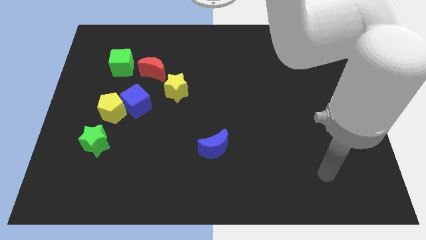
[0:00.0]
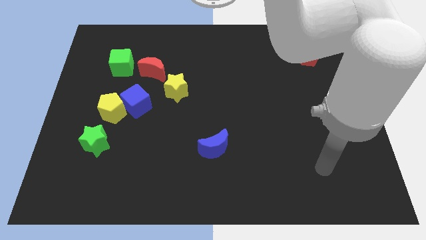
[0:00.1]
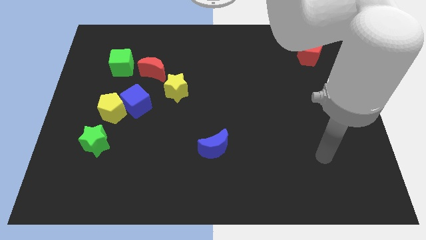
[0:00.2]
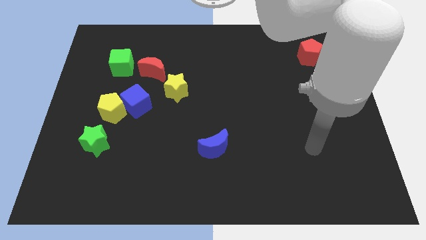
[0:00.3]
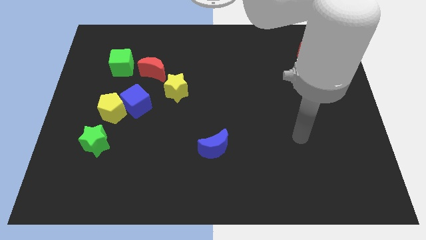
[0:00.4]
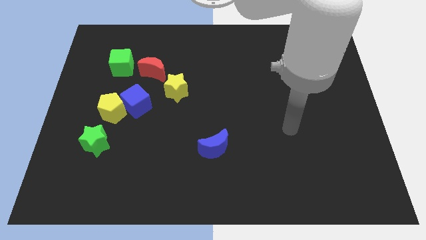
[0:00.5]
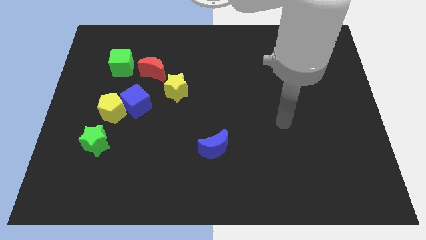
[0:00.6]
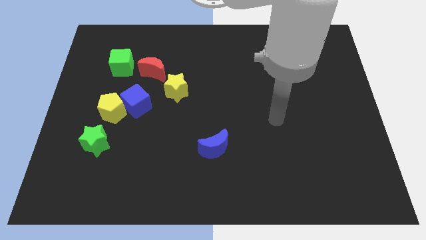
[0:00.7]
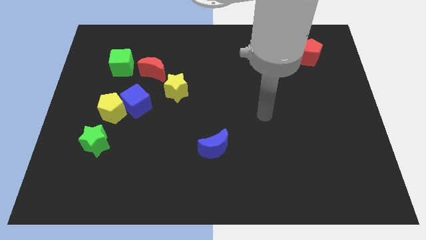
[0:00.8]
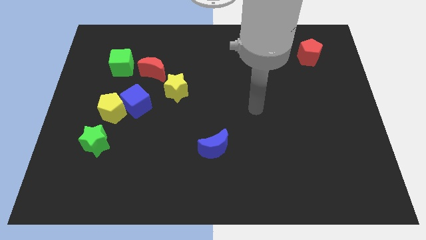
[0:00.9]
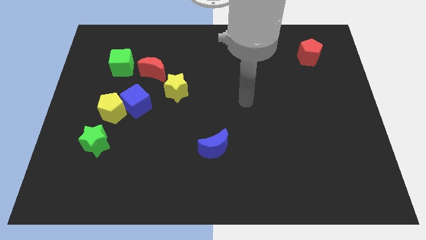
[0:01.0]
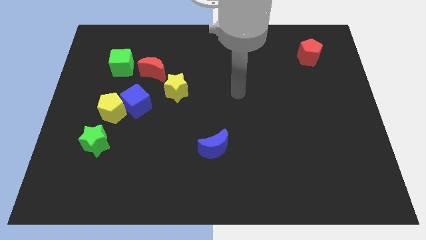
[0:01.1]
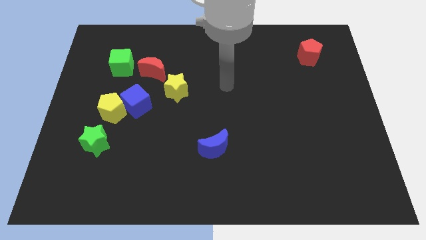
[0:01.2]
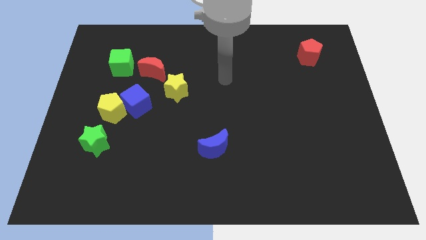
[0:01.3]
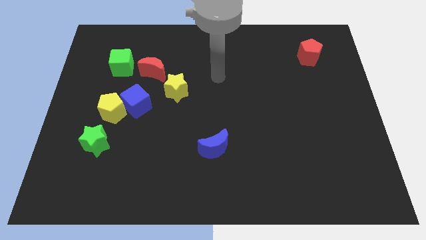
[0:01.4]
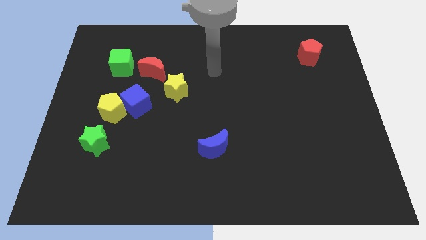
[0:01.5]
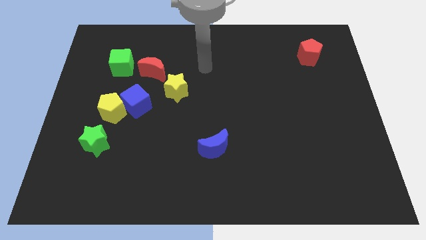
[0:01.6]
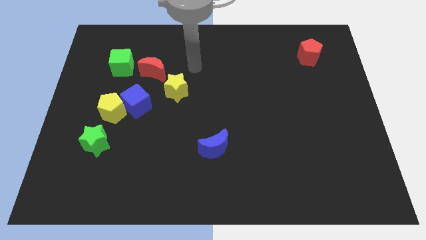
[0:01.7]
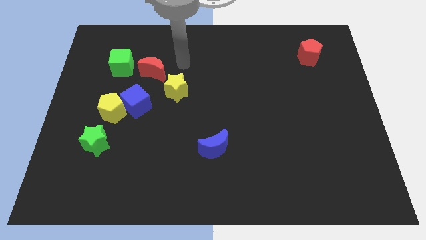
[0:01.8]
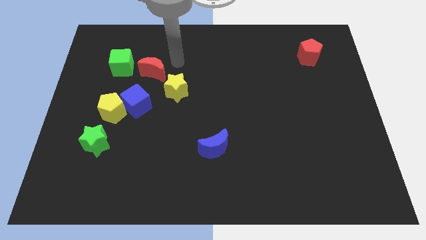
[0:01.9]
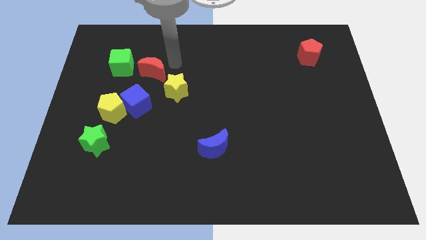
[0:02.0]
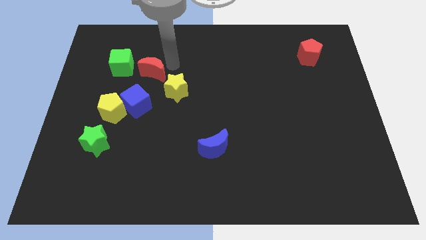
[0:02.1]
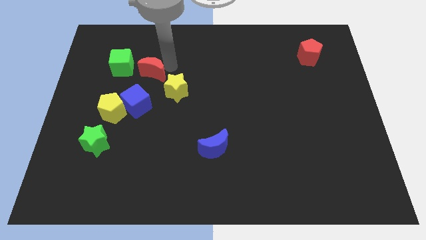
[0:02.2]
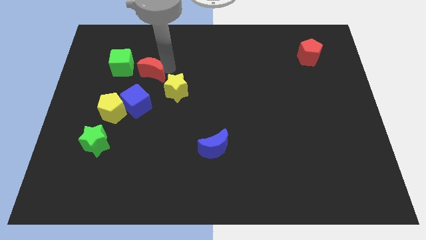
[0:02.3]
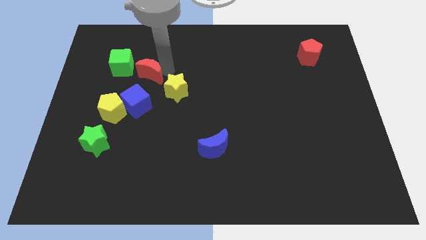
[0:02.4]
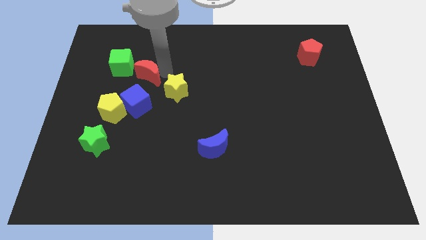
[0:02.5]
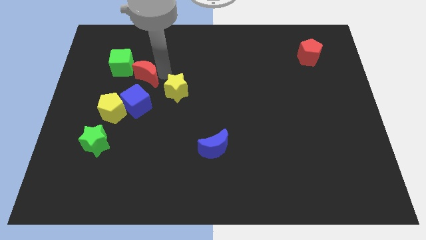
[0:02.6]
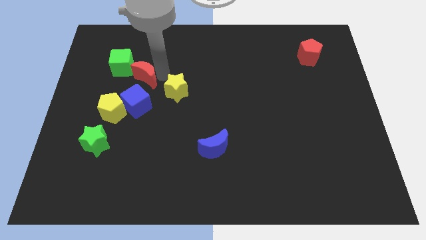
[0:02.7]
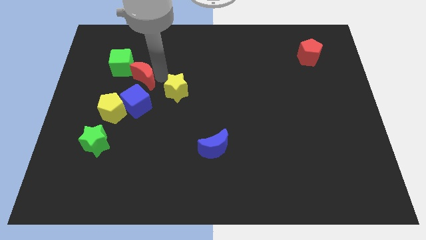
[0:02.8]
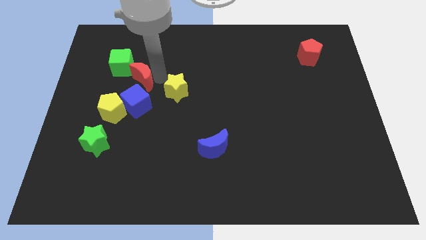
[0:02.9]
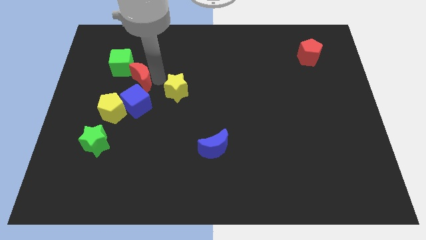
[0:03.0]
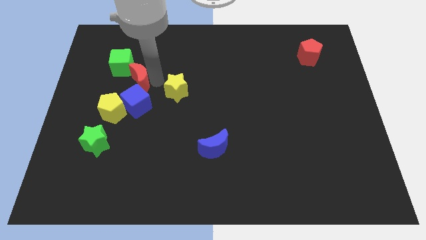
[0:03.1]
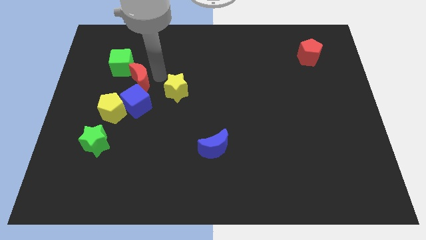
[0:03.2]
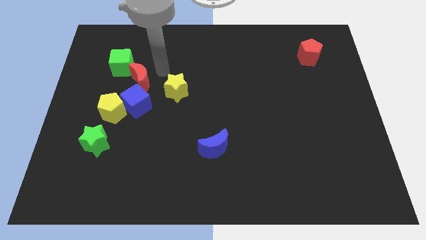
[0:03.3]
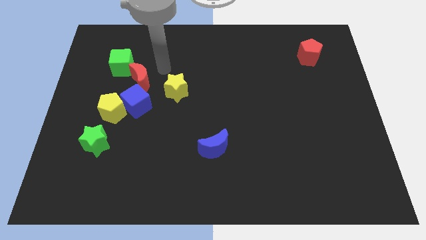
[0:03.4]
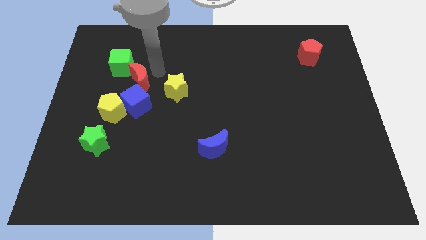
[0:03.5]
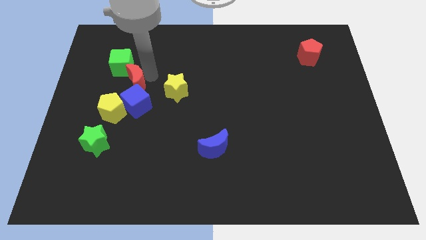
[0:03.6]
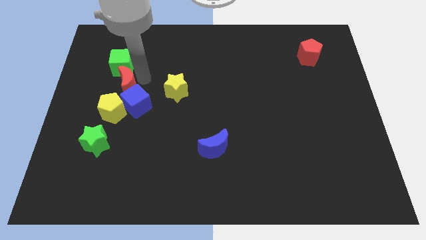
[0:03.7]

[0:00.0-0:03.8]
move the red moon slightly down and then left

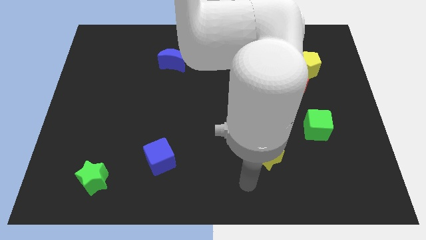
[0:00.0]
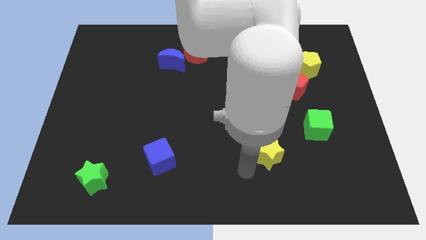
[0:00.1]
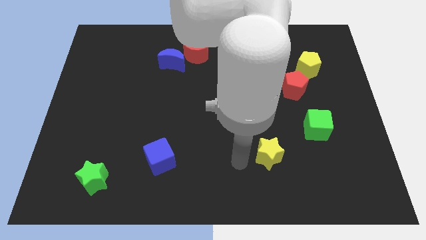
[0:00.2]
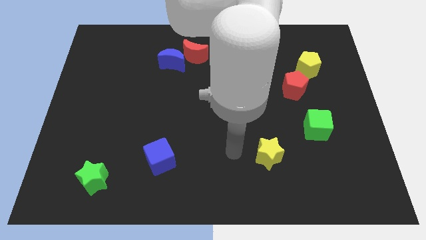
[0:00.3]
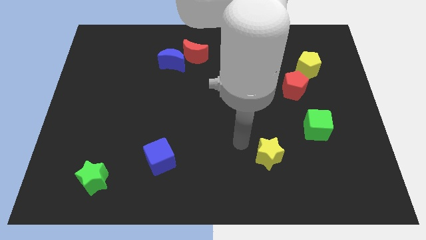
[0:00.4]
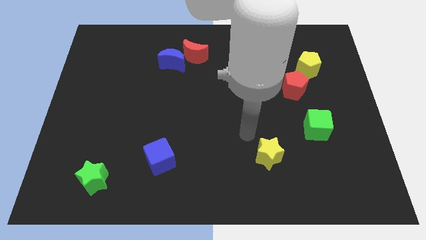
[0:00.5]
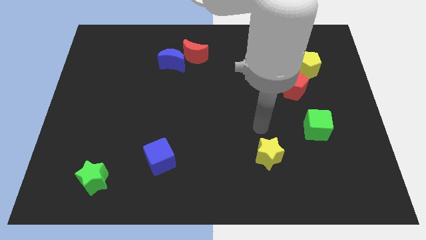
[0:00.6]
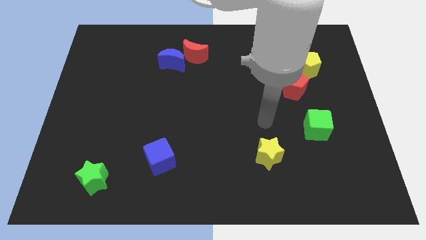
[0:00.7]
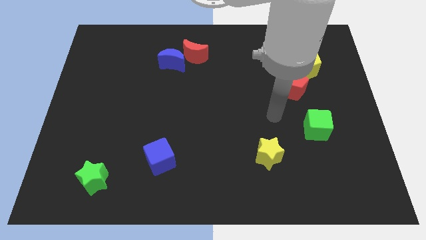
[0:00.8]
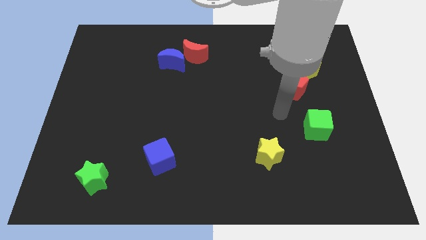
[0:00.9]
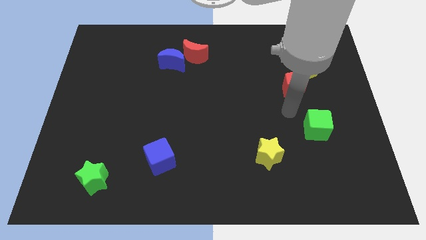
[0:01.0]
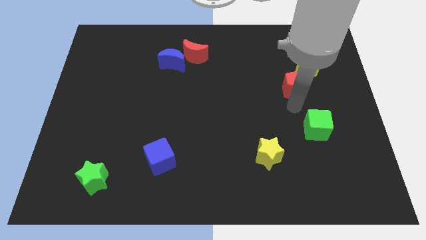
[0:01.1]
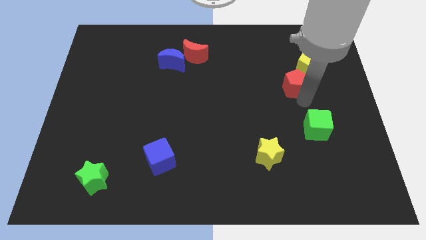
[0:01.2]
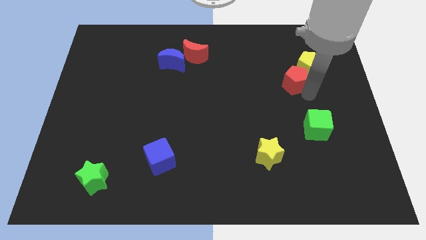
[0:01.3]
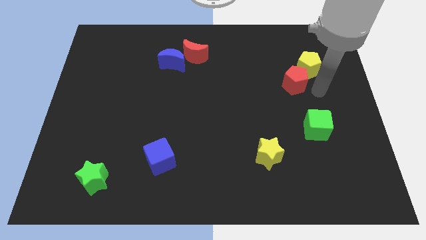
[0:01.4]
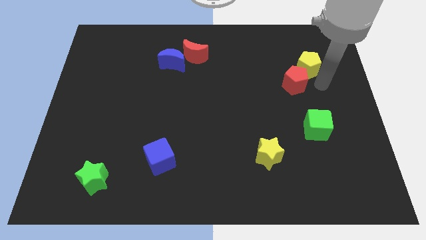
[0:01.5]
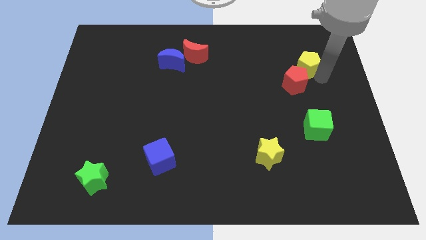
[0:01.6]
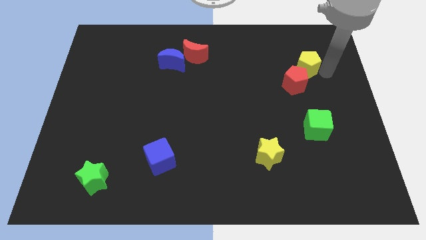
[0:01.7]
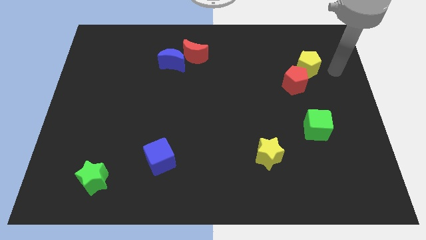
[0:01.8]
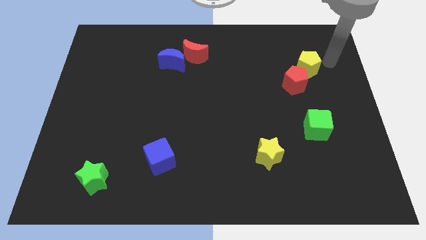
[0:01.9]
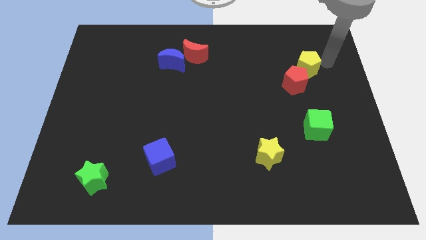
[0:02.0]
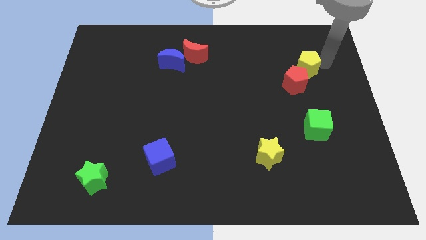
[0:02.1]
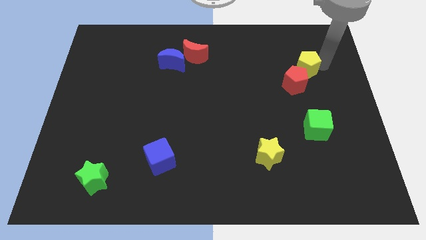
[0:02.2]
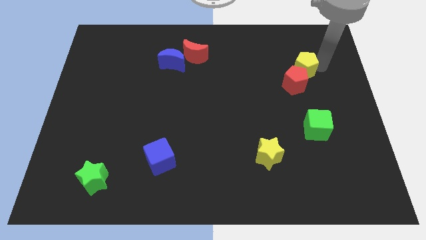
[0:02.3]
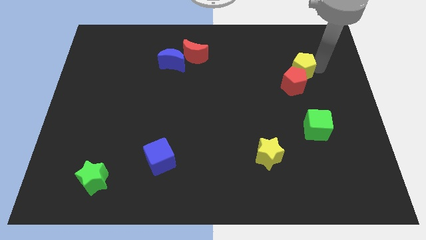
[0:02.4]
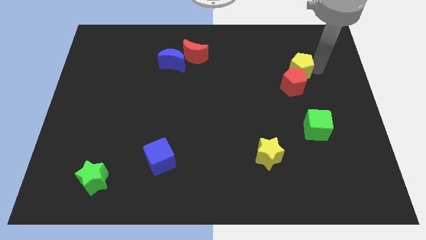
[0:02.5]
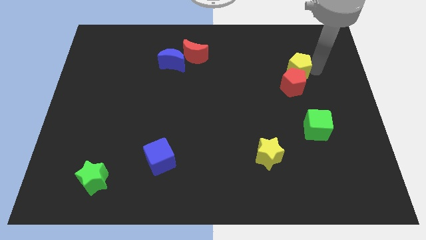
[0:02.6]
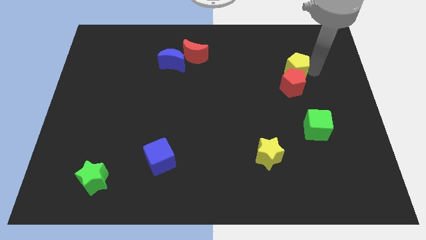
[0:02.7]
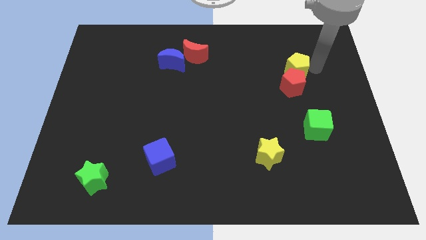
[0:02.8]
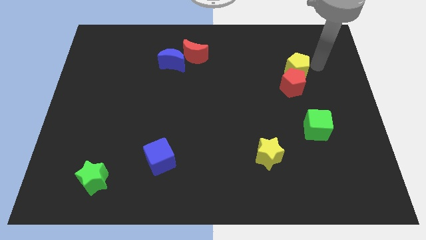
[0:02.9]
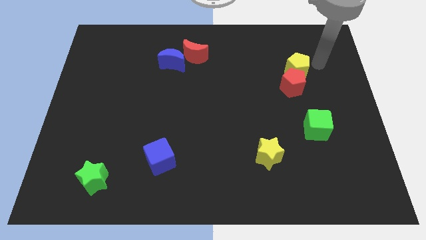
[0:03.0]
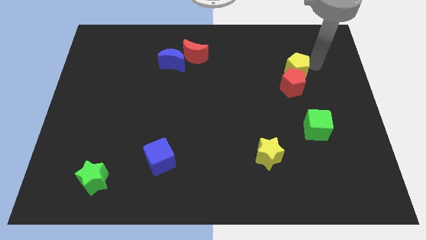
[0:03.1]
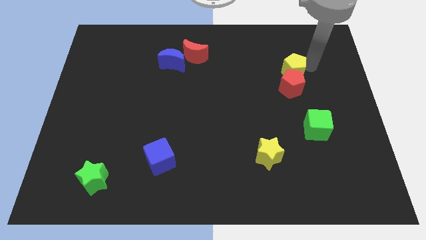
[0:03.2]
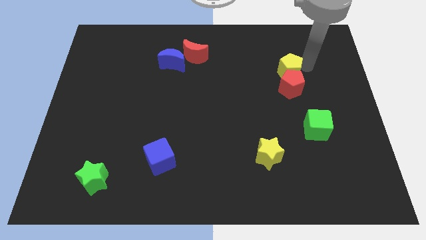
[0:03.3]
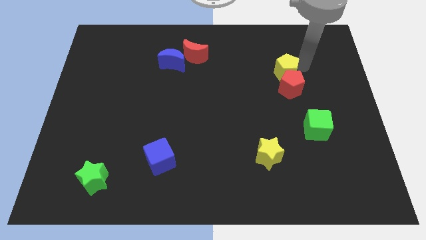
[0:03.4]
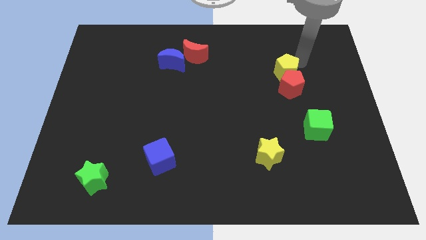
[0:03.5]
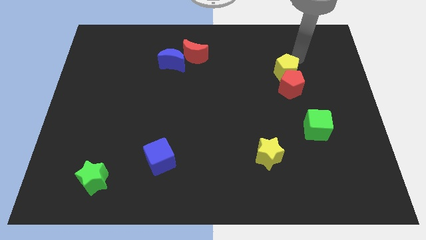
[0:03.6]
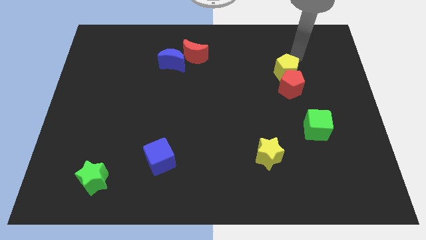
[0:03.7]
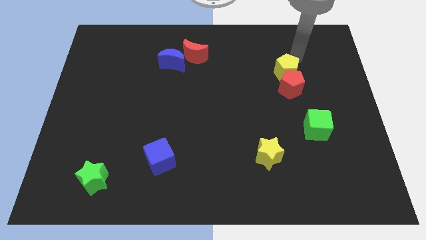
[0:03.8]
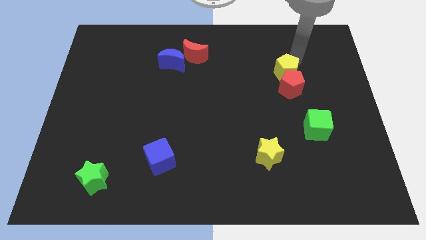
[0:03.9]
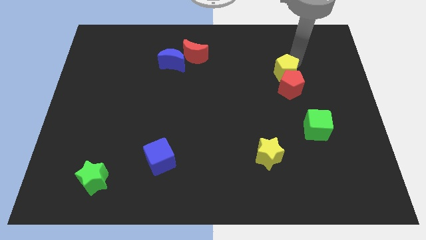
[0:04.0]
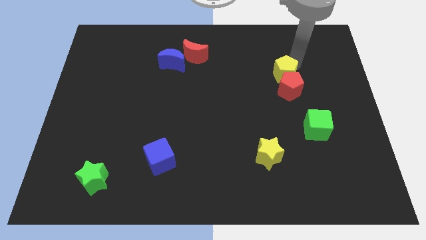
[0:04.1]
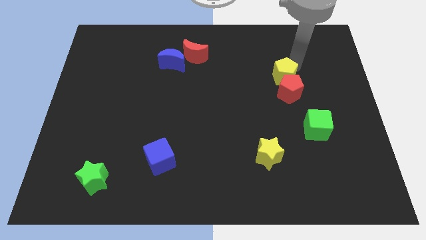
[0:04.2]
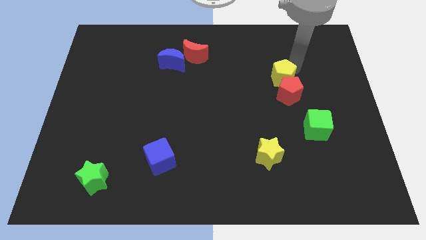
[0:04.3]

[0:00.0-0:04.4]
slightly move the yellow pentagon diagonally downwards and to the left
